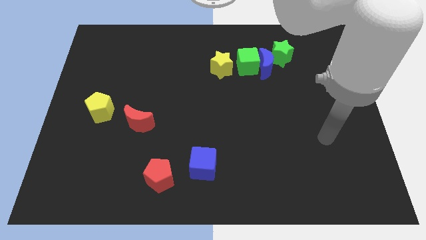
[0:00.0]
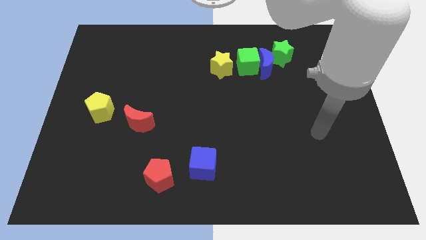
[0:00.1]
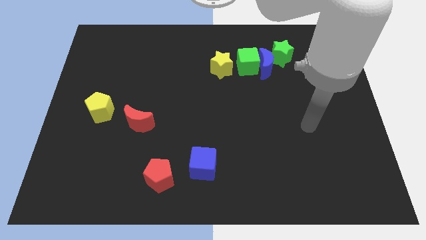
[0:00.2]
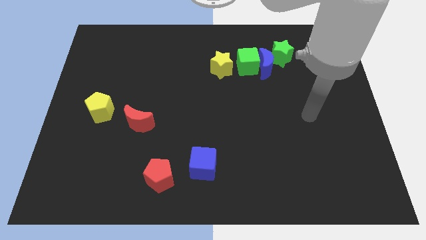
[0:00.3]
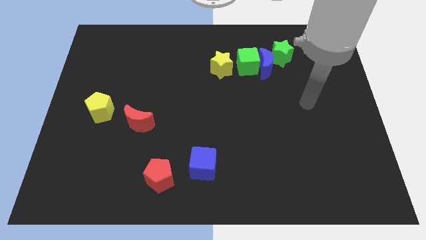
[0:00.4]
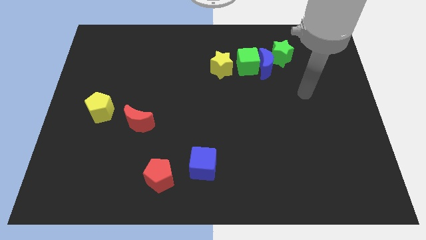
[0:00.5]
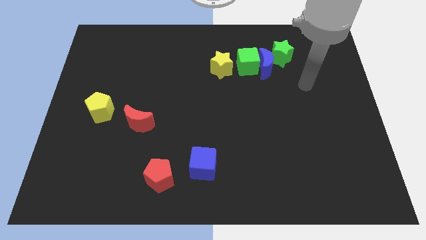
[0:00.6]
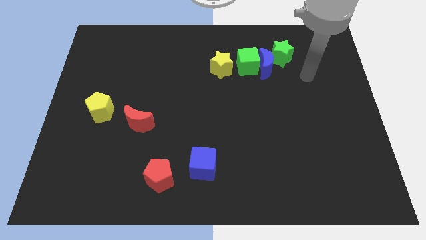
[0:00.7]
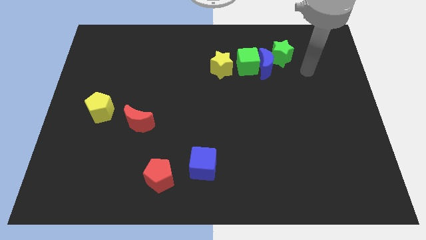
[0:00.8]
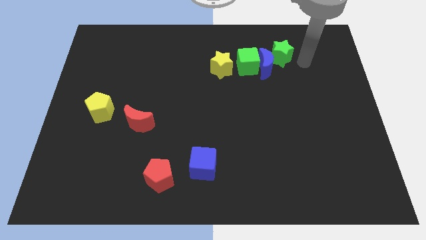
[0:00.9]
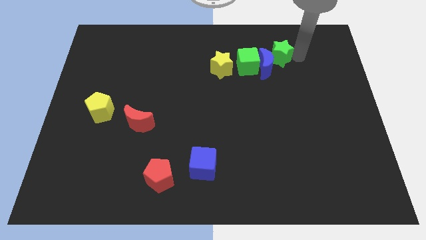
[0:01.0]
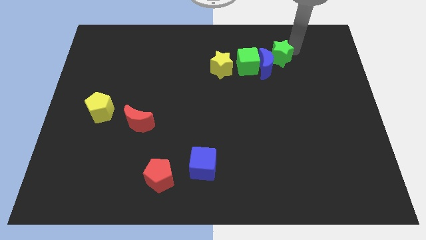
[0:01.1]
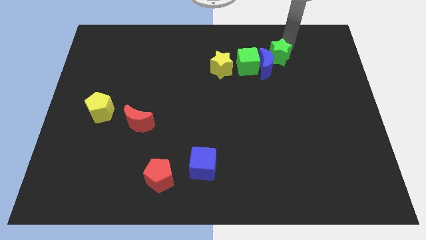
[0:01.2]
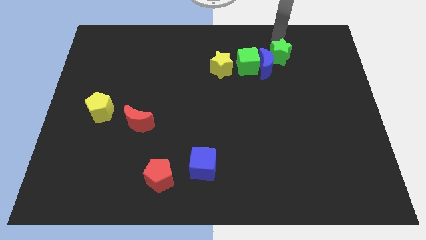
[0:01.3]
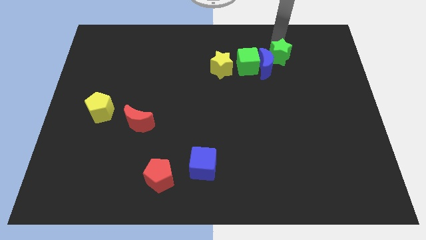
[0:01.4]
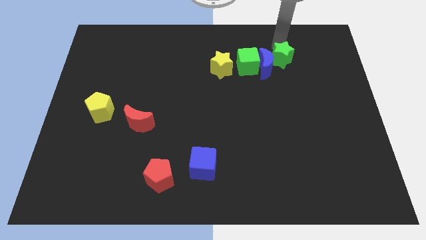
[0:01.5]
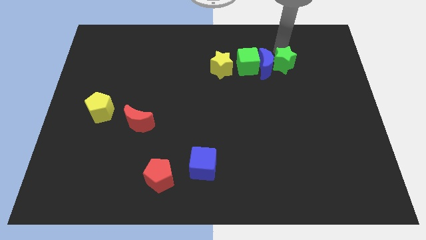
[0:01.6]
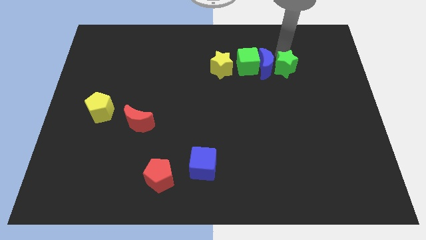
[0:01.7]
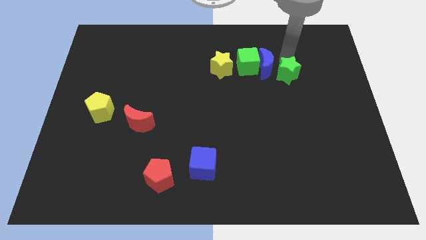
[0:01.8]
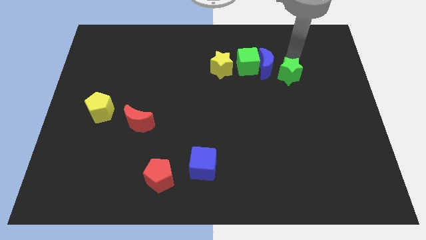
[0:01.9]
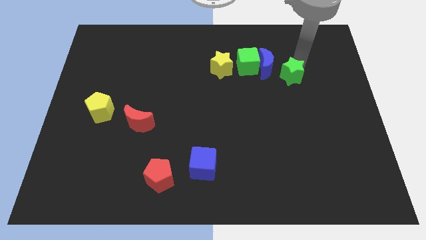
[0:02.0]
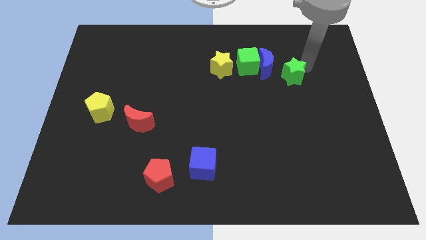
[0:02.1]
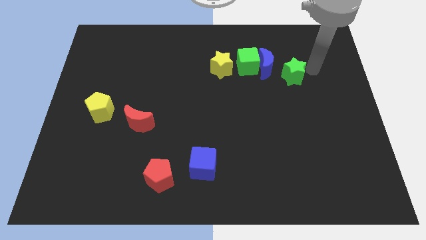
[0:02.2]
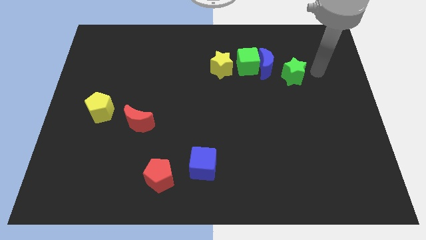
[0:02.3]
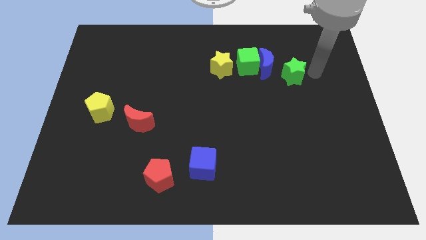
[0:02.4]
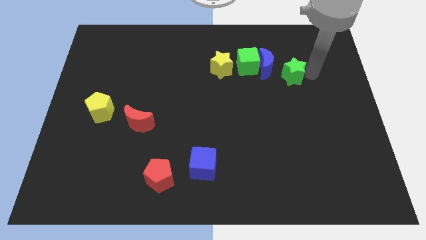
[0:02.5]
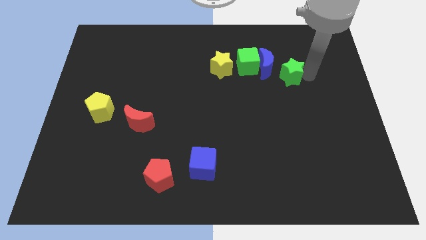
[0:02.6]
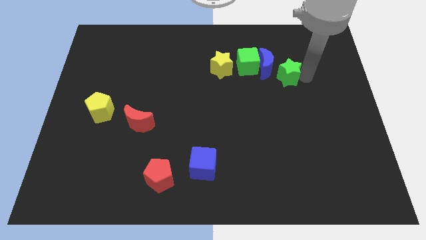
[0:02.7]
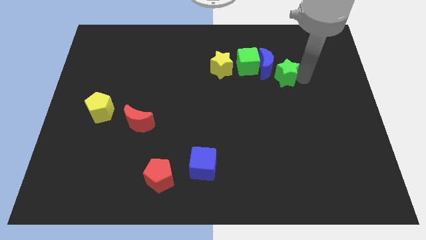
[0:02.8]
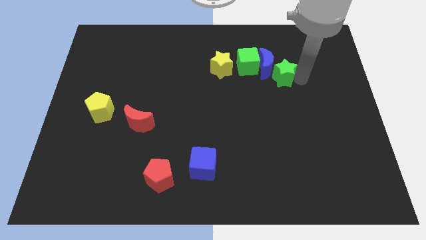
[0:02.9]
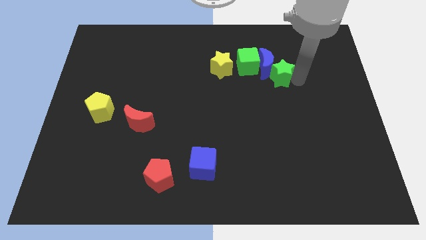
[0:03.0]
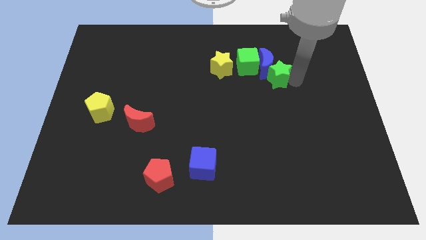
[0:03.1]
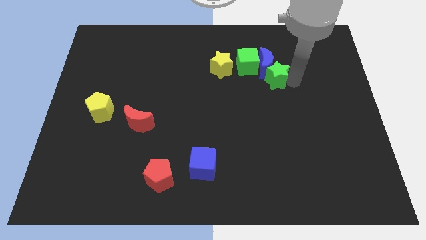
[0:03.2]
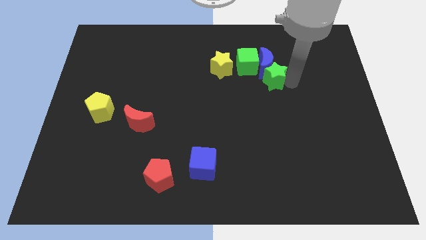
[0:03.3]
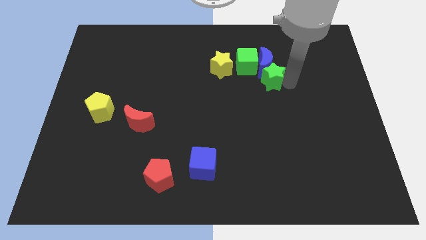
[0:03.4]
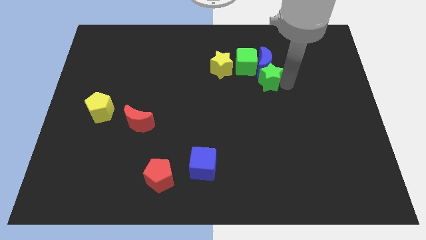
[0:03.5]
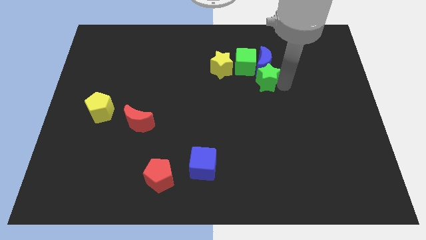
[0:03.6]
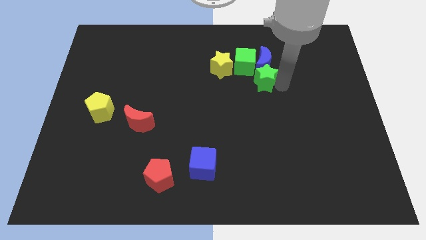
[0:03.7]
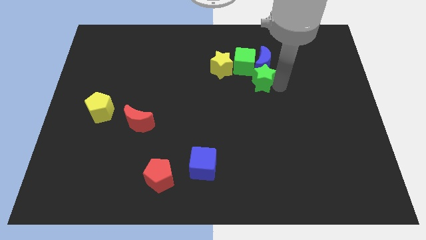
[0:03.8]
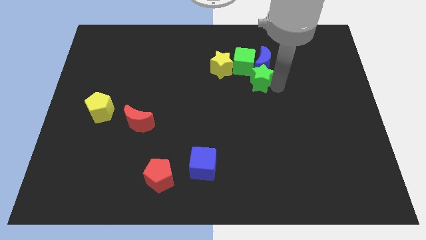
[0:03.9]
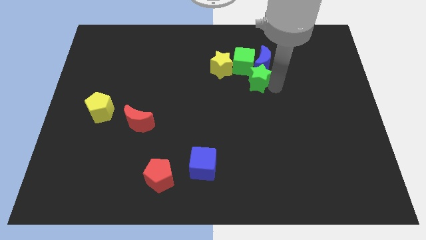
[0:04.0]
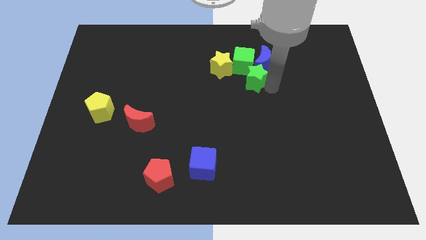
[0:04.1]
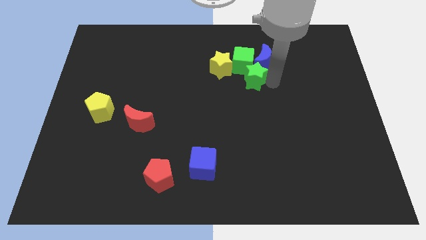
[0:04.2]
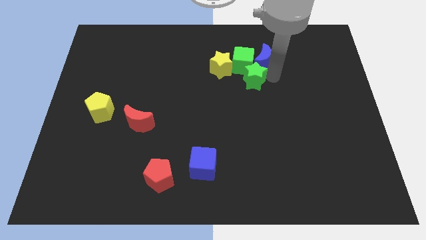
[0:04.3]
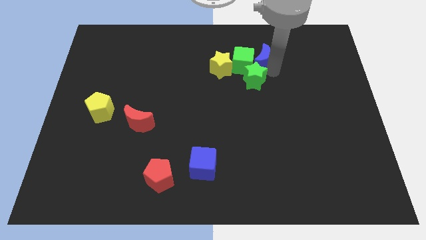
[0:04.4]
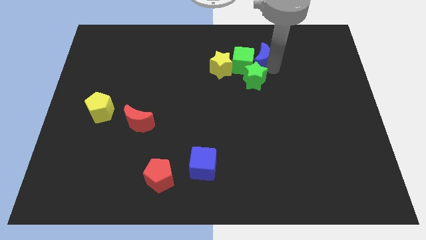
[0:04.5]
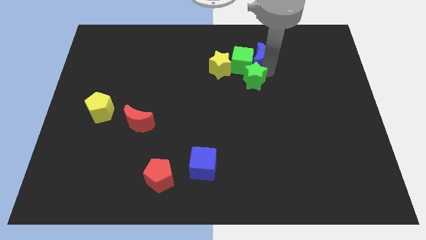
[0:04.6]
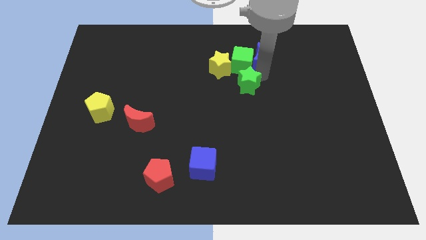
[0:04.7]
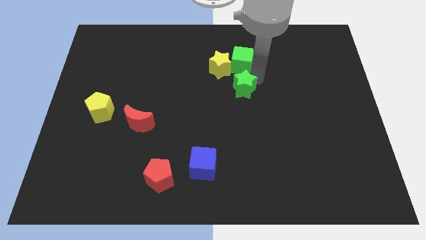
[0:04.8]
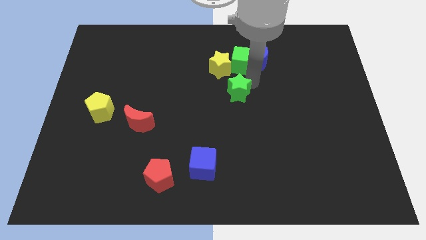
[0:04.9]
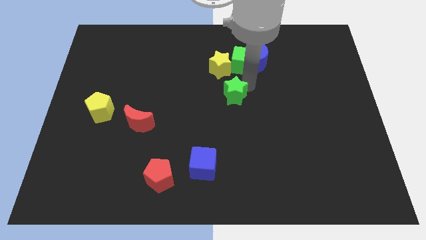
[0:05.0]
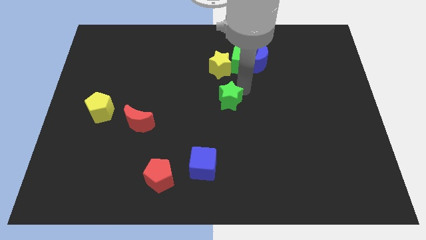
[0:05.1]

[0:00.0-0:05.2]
move the green star downwards and then to the left

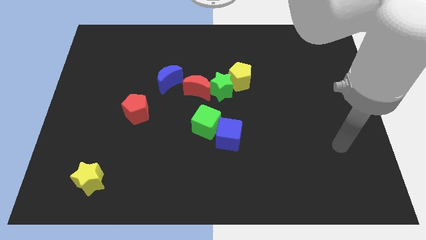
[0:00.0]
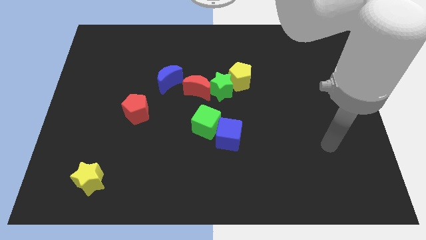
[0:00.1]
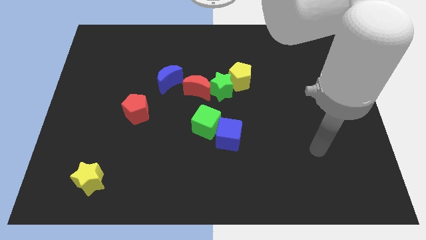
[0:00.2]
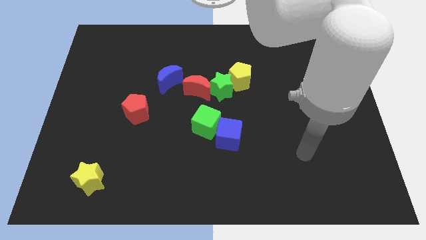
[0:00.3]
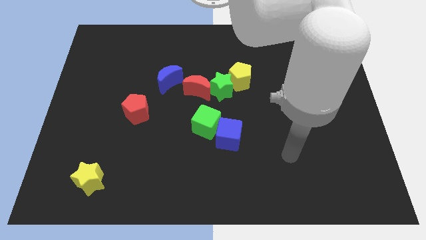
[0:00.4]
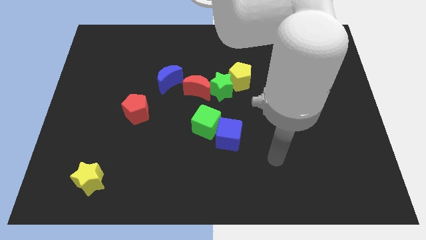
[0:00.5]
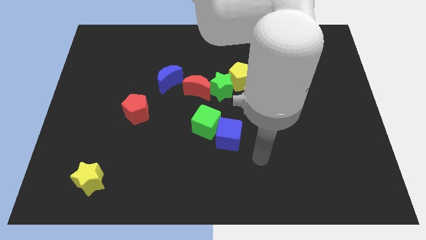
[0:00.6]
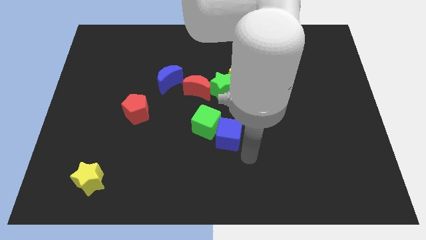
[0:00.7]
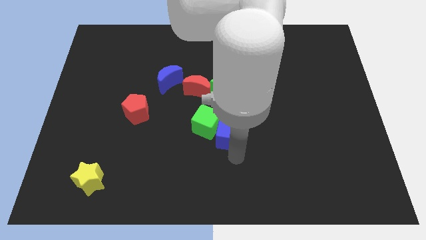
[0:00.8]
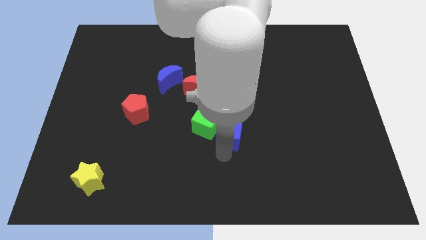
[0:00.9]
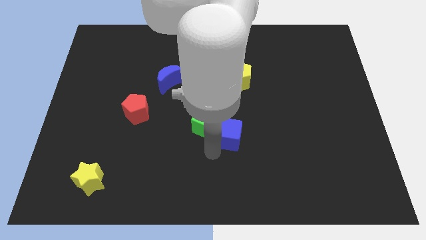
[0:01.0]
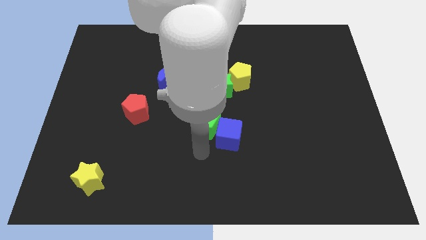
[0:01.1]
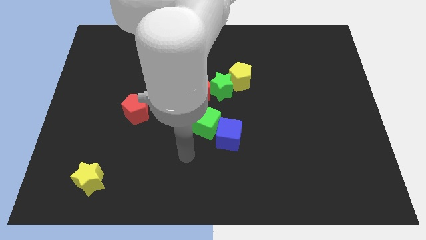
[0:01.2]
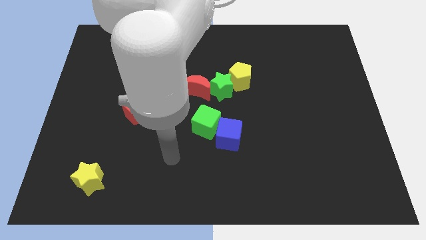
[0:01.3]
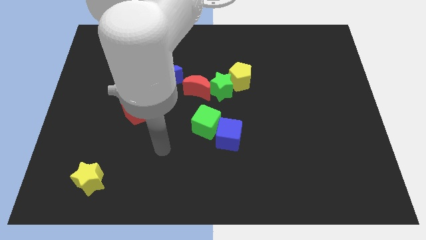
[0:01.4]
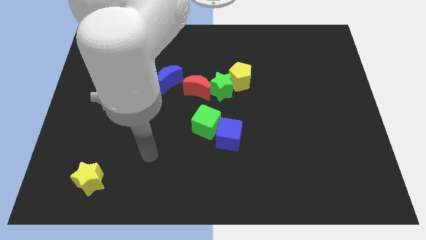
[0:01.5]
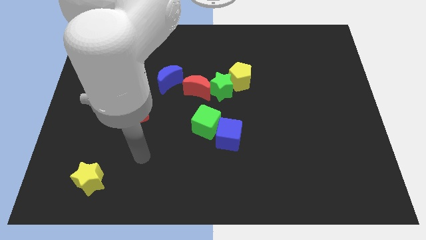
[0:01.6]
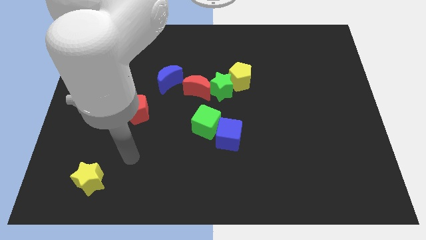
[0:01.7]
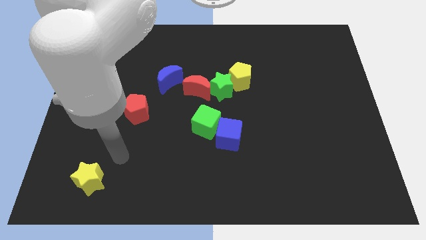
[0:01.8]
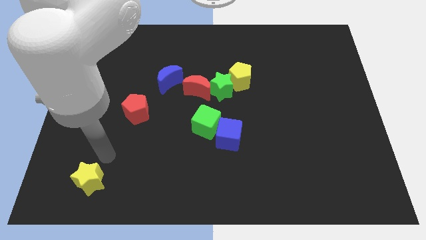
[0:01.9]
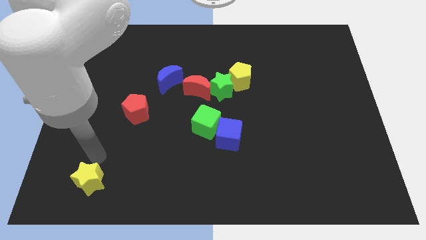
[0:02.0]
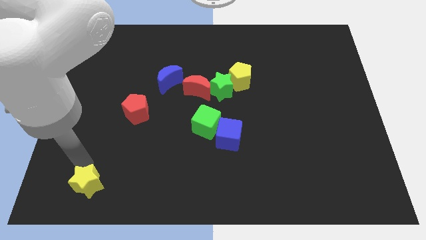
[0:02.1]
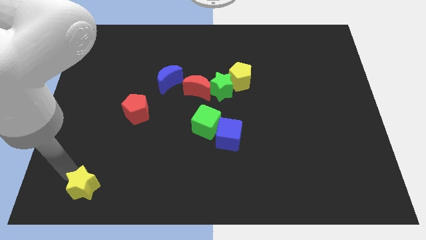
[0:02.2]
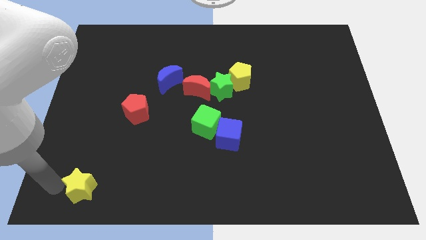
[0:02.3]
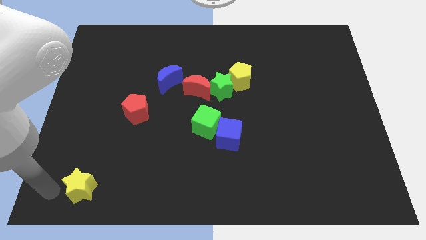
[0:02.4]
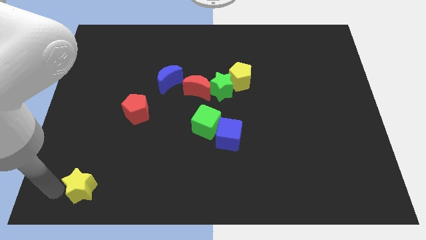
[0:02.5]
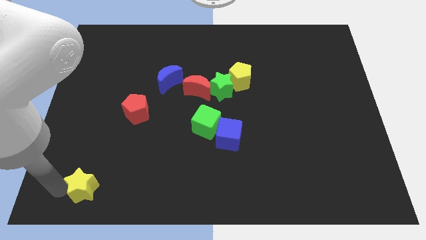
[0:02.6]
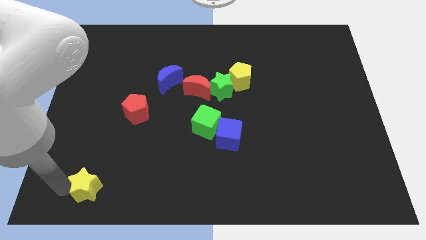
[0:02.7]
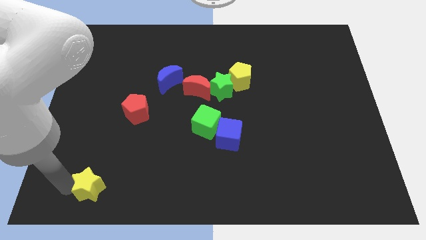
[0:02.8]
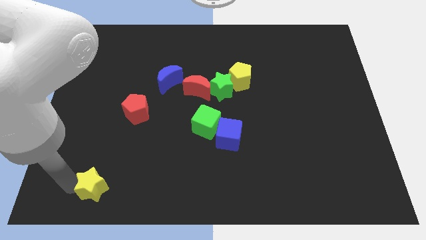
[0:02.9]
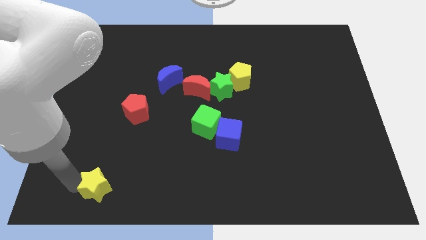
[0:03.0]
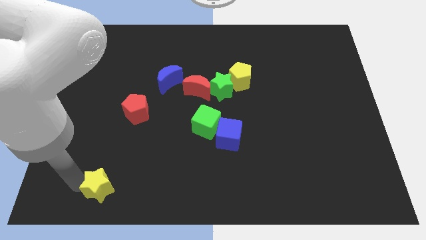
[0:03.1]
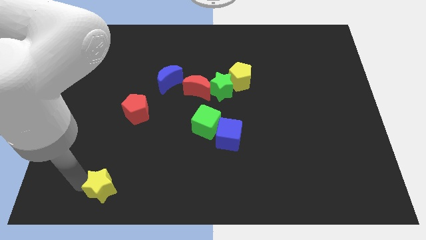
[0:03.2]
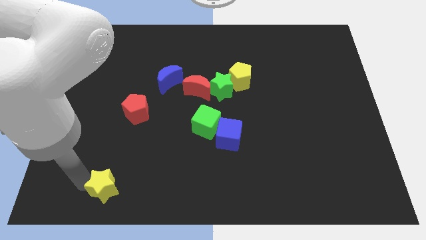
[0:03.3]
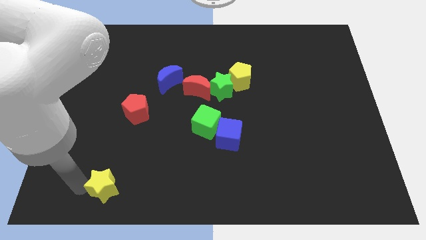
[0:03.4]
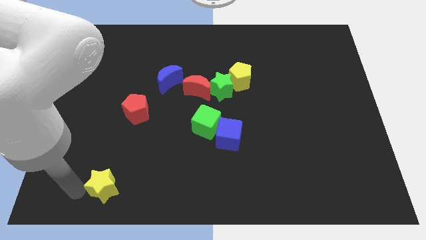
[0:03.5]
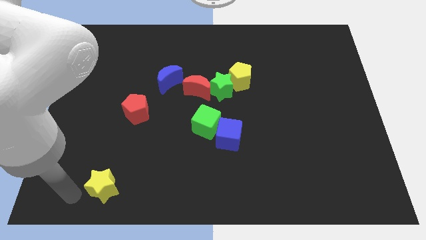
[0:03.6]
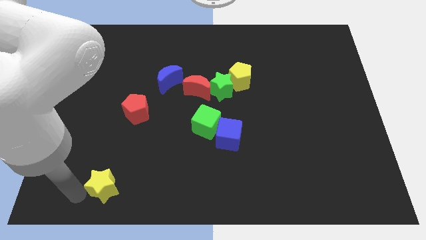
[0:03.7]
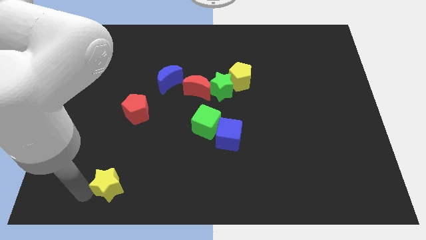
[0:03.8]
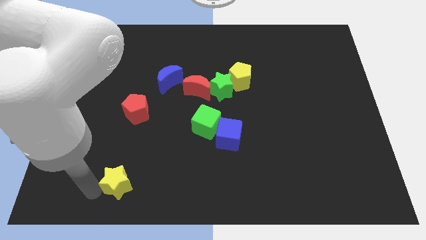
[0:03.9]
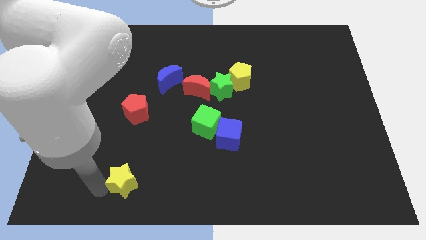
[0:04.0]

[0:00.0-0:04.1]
slightly slide the yellow star to the right
